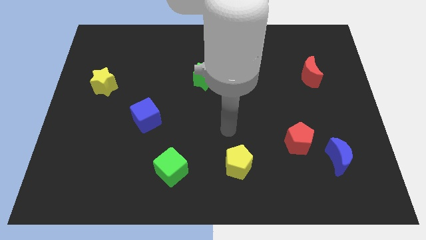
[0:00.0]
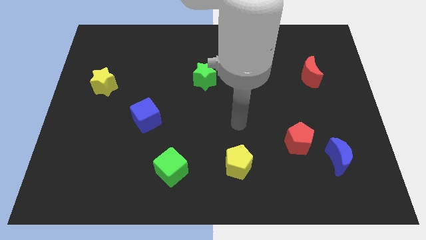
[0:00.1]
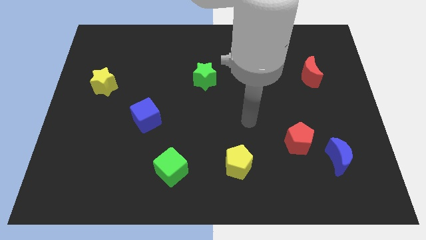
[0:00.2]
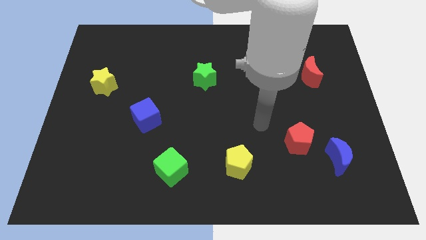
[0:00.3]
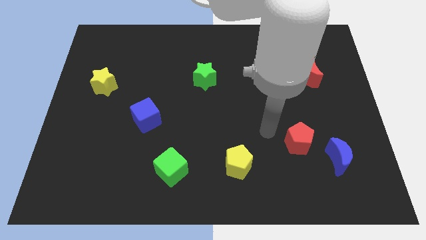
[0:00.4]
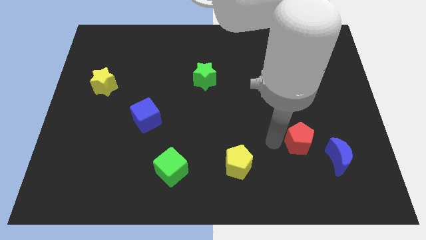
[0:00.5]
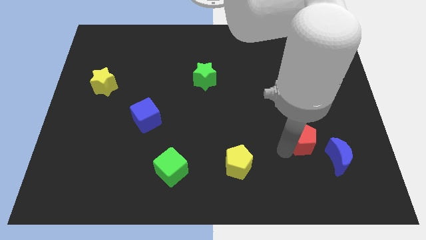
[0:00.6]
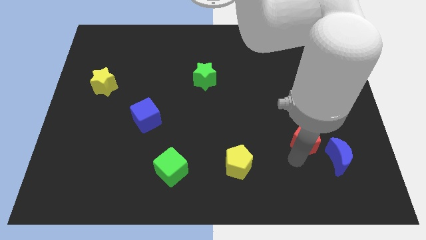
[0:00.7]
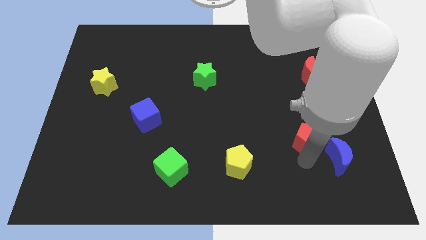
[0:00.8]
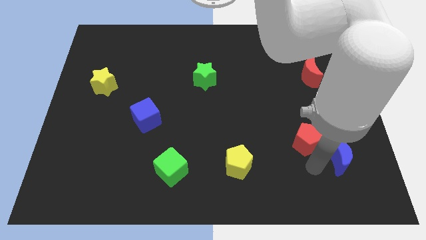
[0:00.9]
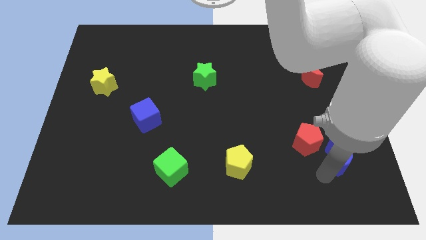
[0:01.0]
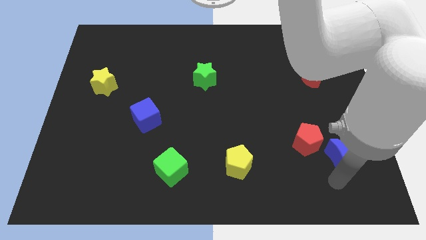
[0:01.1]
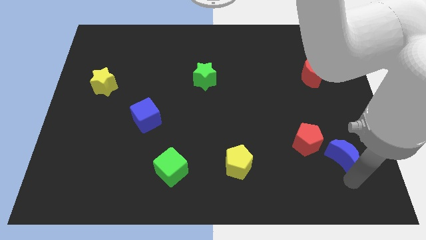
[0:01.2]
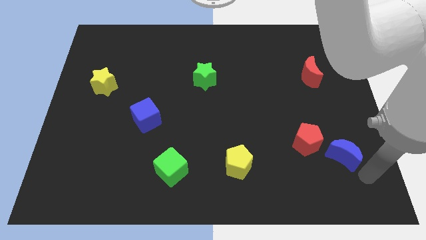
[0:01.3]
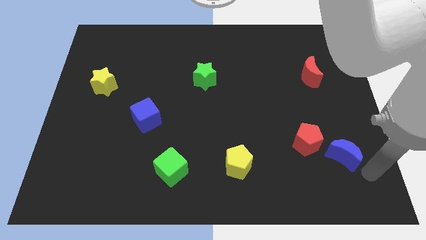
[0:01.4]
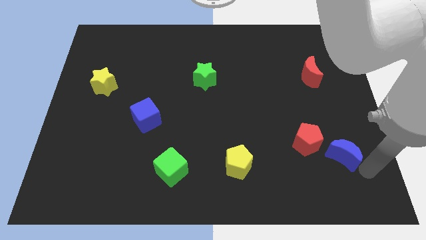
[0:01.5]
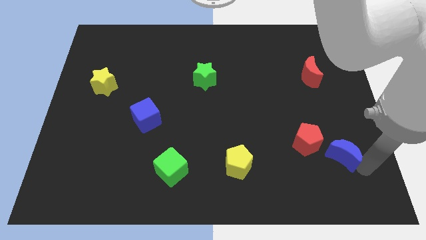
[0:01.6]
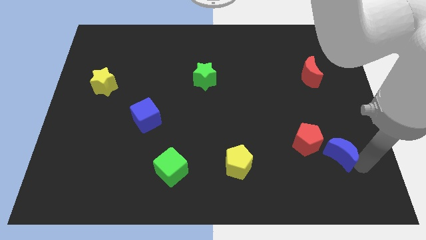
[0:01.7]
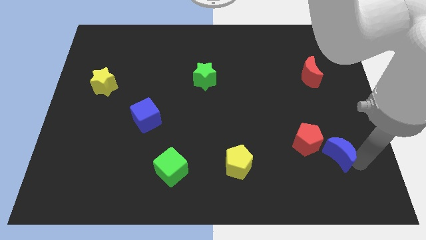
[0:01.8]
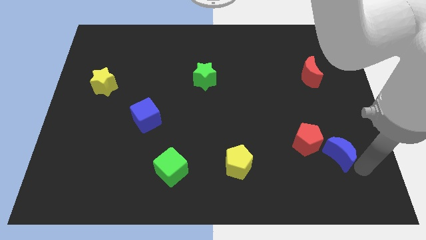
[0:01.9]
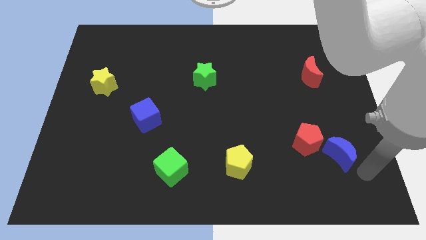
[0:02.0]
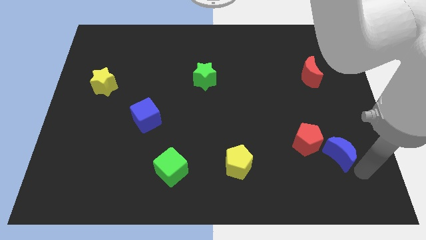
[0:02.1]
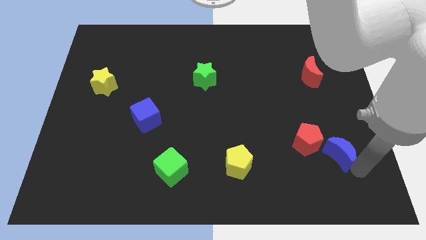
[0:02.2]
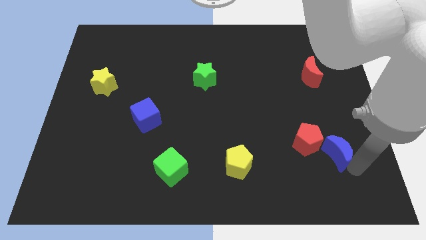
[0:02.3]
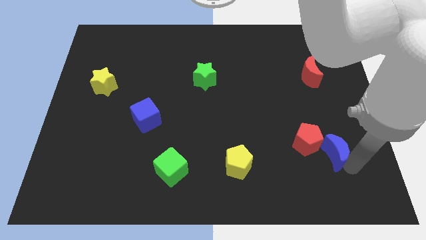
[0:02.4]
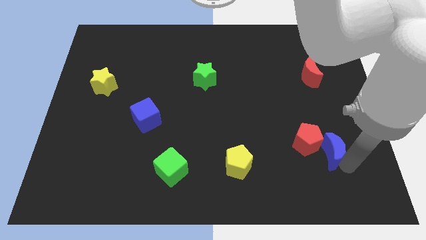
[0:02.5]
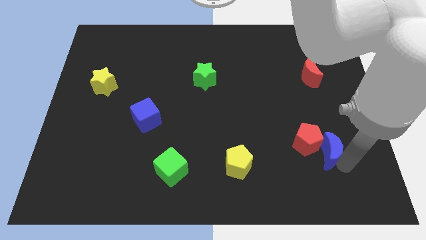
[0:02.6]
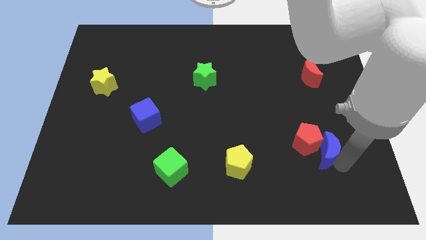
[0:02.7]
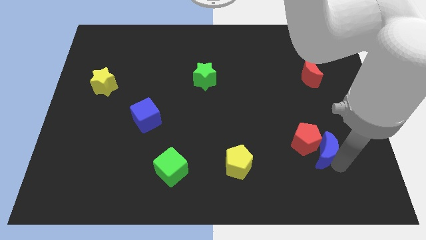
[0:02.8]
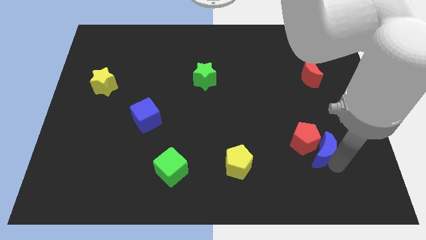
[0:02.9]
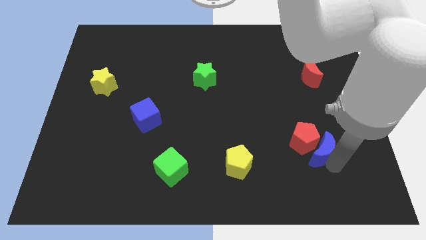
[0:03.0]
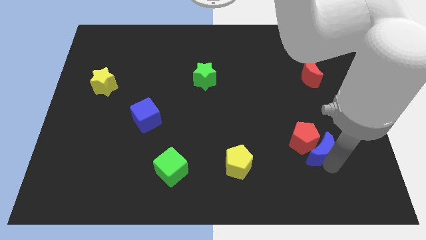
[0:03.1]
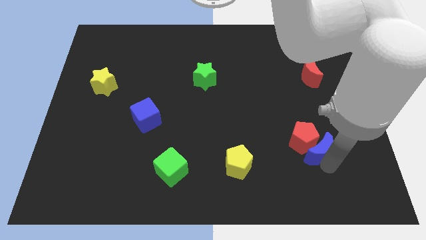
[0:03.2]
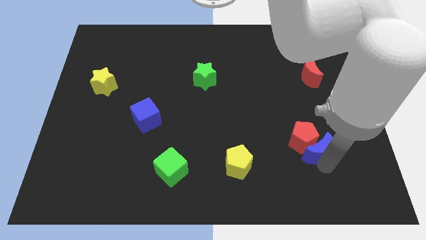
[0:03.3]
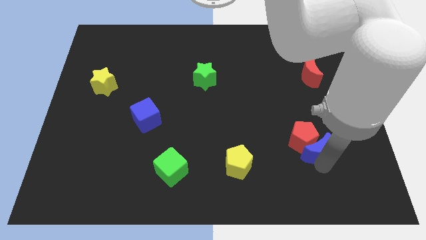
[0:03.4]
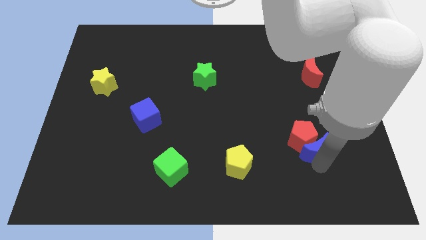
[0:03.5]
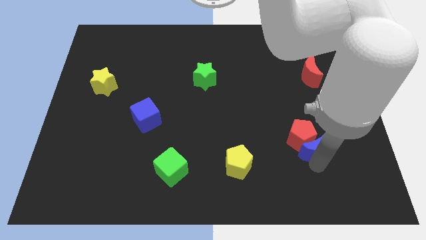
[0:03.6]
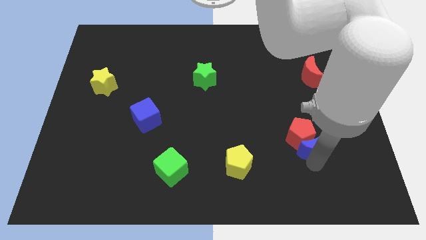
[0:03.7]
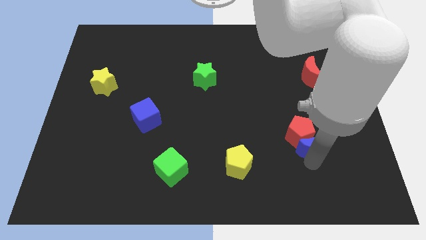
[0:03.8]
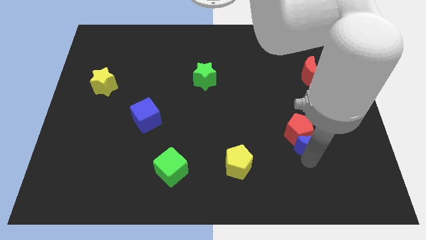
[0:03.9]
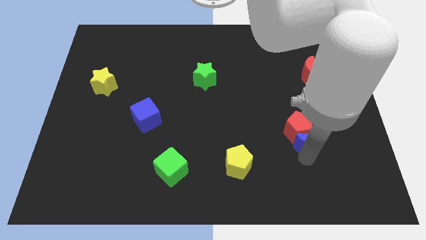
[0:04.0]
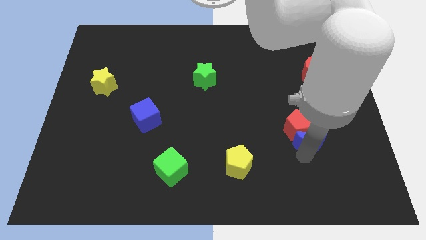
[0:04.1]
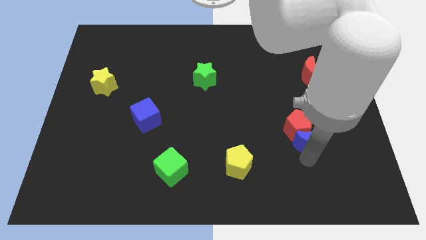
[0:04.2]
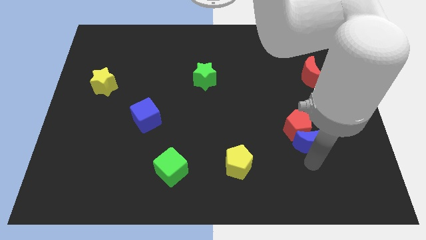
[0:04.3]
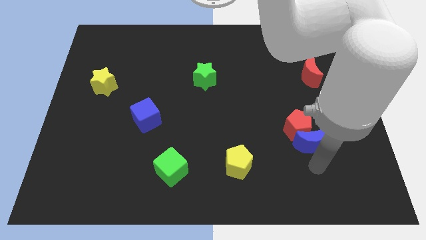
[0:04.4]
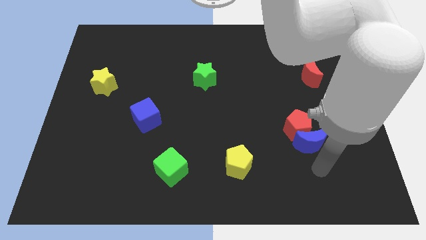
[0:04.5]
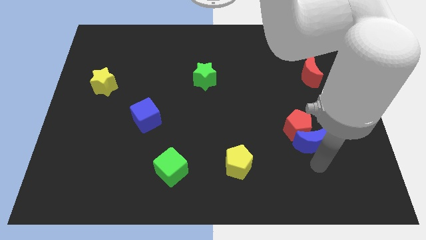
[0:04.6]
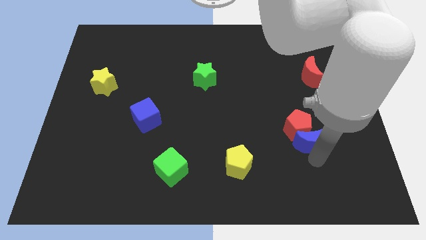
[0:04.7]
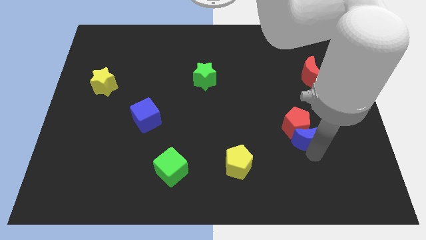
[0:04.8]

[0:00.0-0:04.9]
slightly push the blue moon up and to the left diagonally

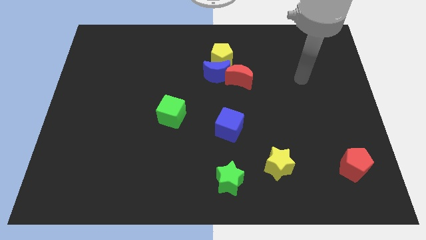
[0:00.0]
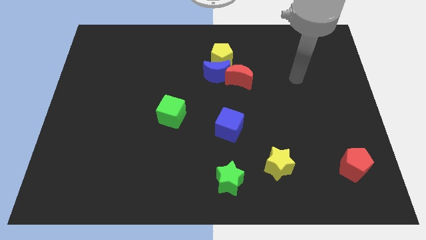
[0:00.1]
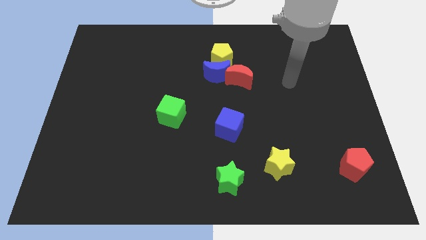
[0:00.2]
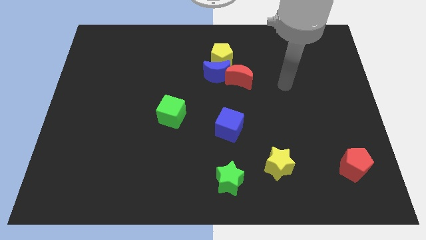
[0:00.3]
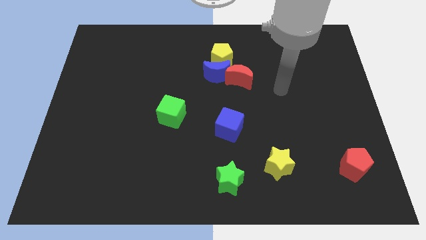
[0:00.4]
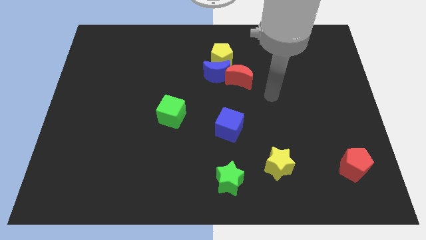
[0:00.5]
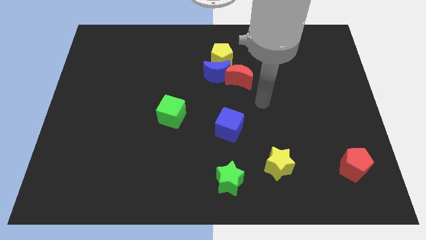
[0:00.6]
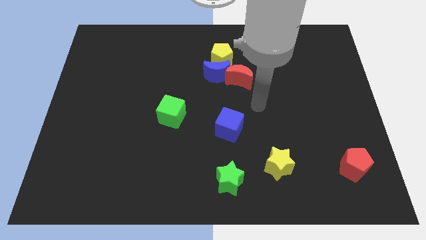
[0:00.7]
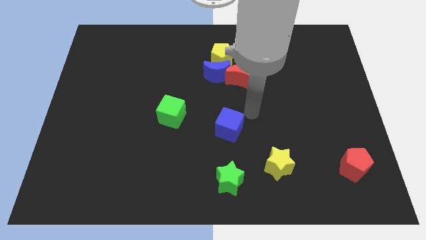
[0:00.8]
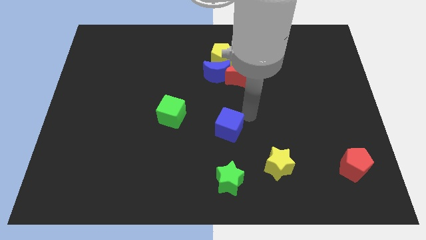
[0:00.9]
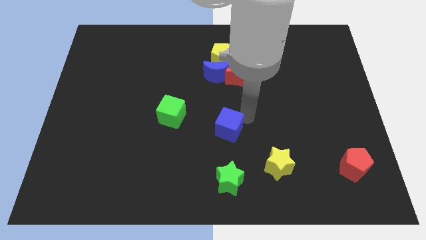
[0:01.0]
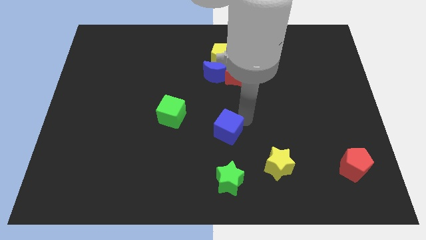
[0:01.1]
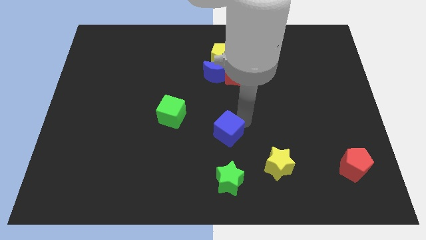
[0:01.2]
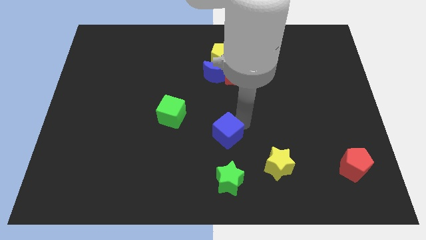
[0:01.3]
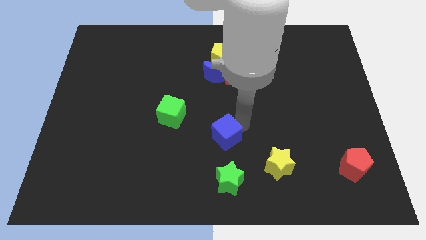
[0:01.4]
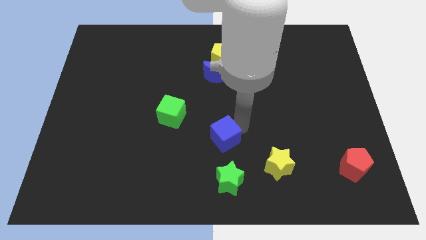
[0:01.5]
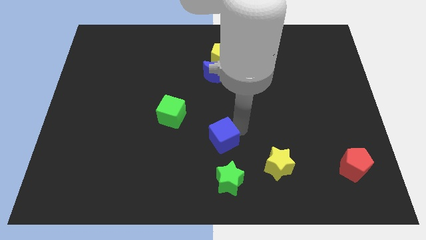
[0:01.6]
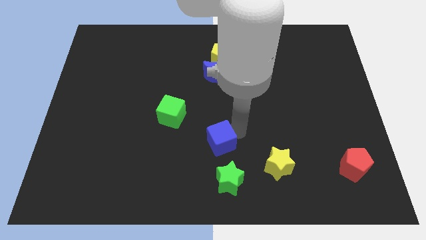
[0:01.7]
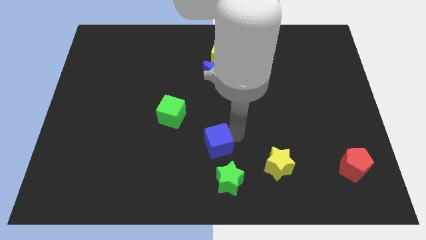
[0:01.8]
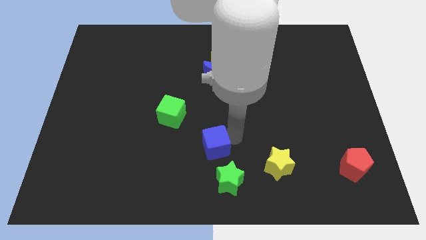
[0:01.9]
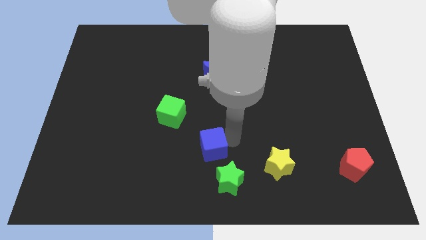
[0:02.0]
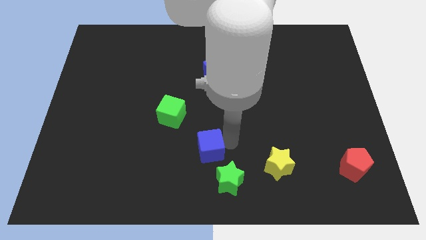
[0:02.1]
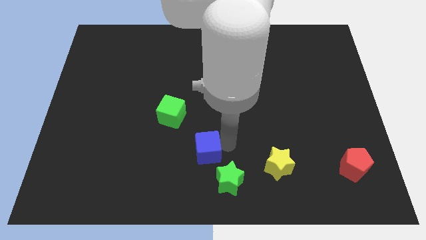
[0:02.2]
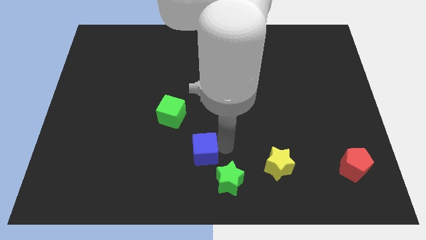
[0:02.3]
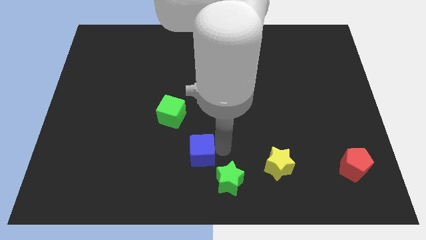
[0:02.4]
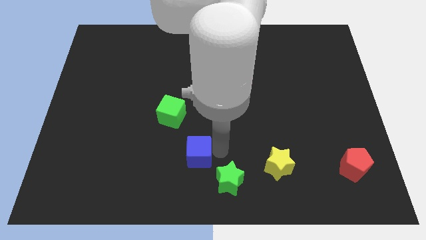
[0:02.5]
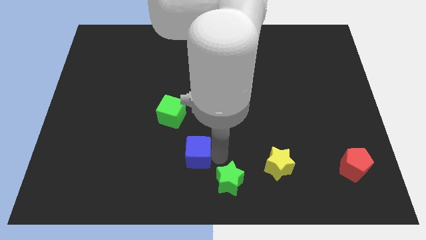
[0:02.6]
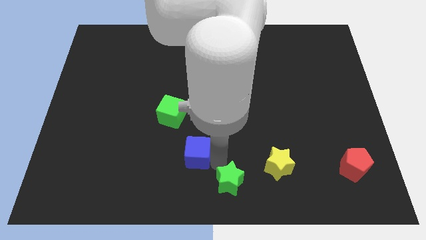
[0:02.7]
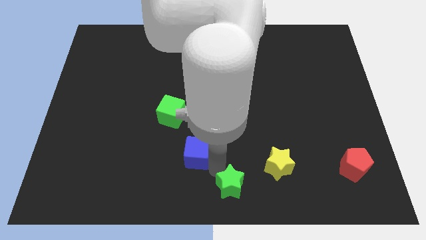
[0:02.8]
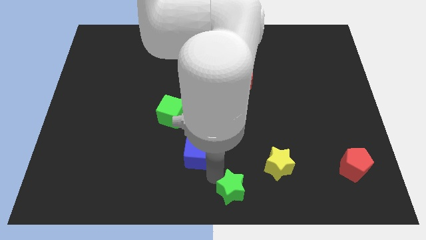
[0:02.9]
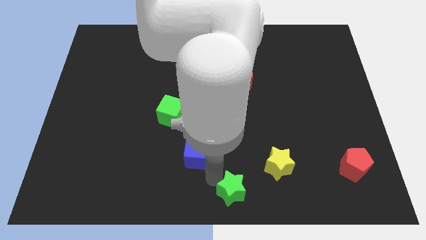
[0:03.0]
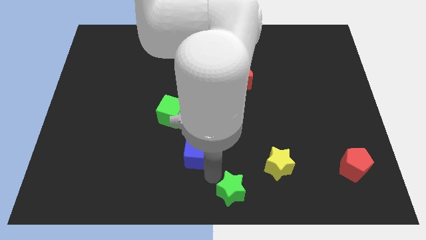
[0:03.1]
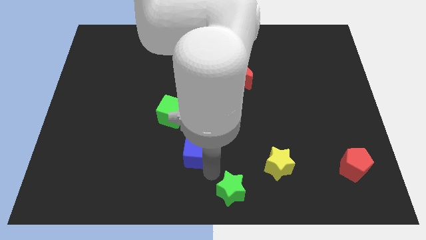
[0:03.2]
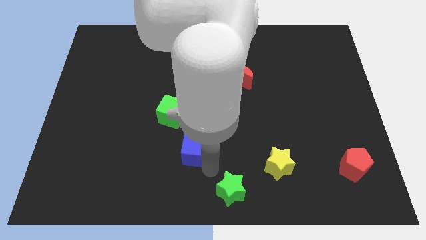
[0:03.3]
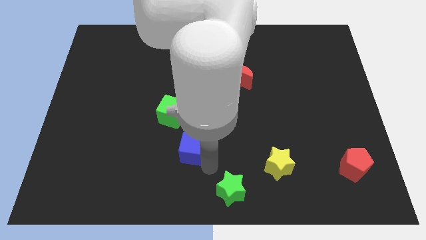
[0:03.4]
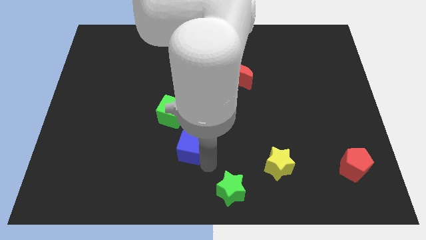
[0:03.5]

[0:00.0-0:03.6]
move the blue cube to the left slightly
